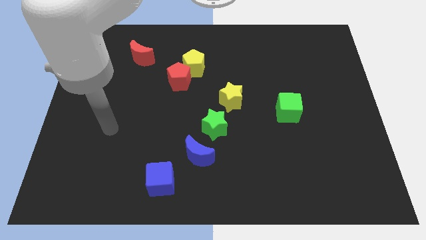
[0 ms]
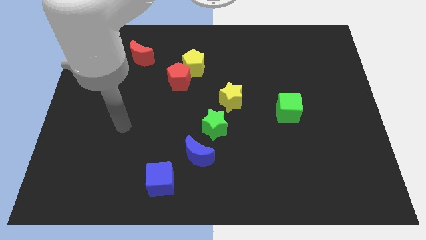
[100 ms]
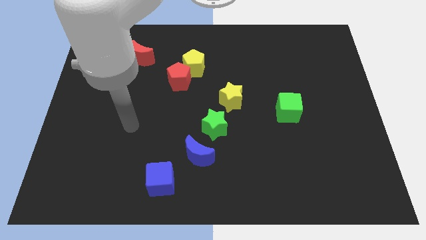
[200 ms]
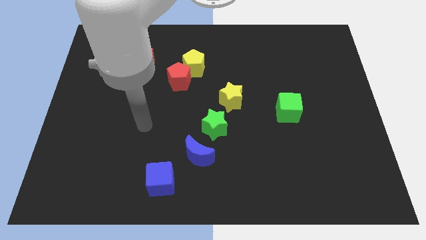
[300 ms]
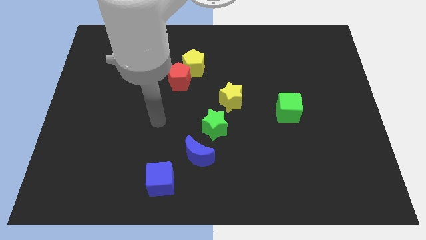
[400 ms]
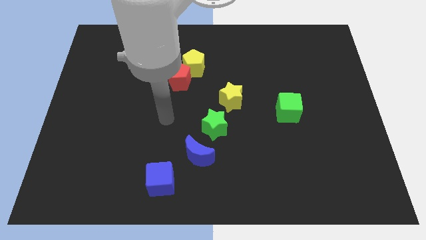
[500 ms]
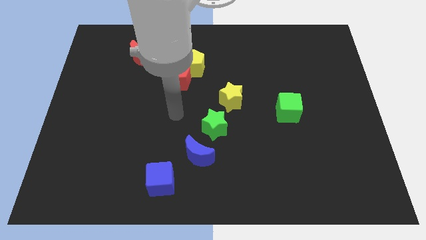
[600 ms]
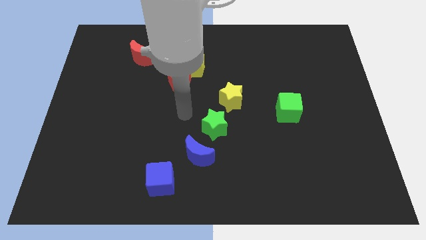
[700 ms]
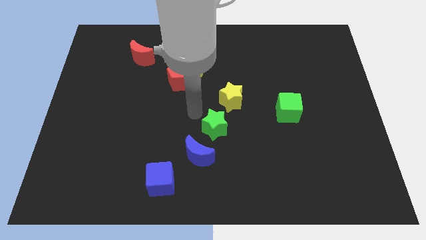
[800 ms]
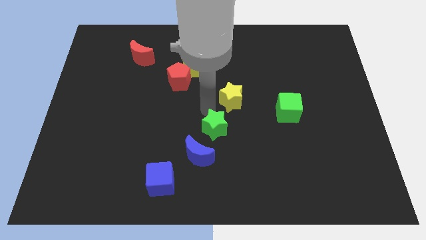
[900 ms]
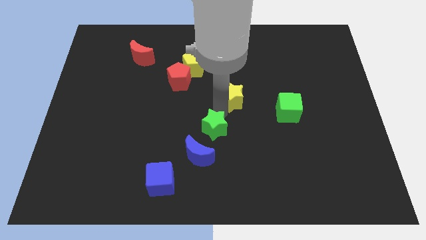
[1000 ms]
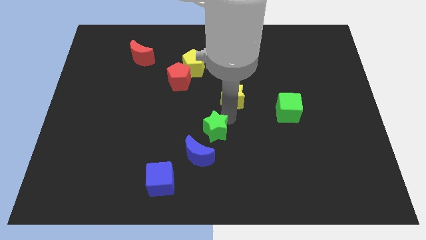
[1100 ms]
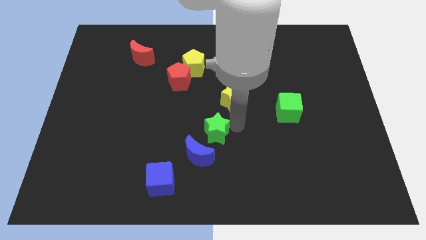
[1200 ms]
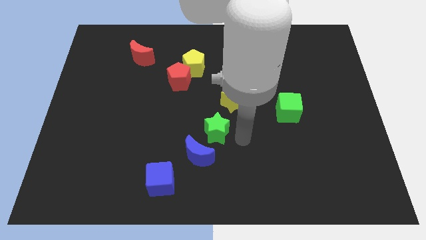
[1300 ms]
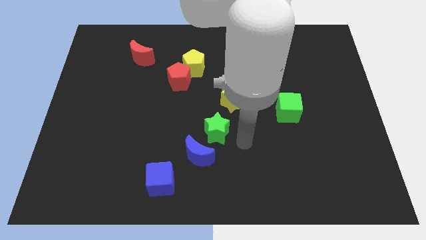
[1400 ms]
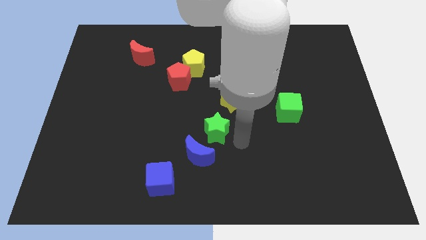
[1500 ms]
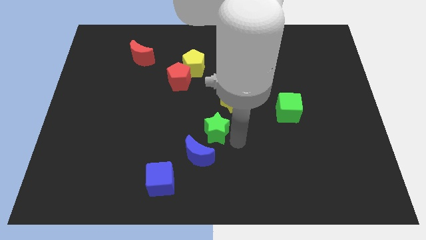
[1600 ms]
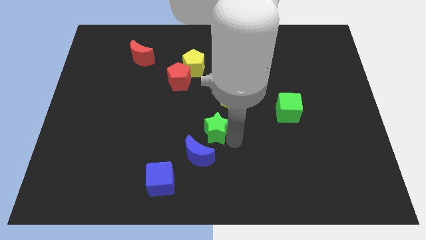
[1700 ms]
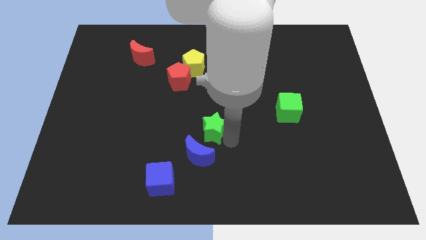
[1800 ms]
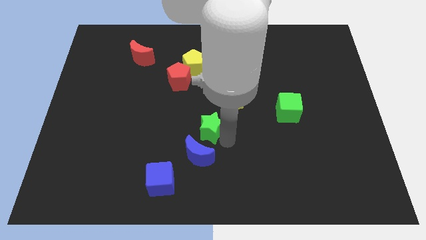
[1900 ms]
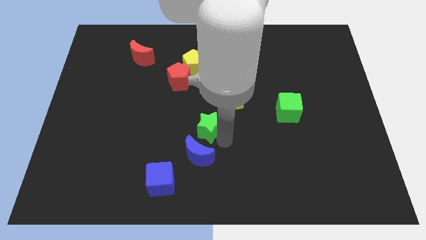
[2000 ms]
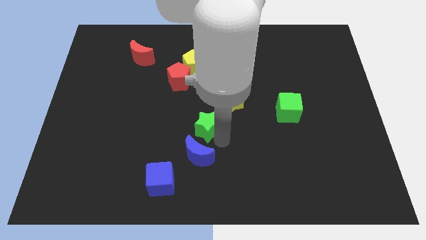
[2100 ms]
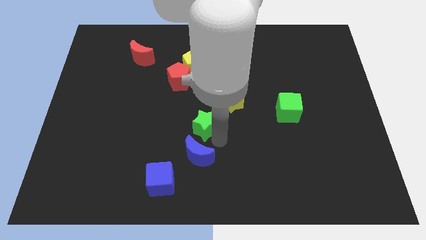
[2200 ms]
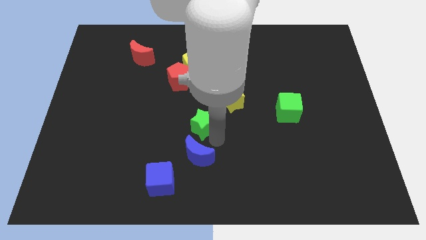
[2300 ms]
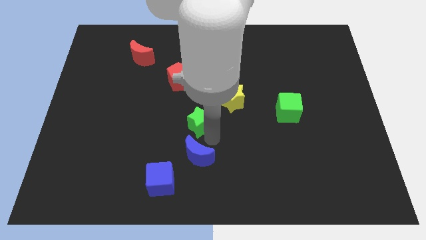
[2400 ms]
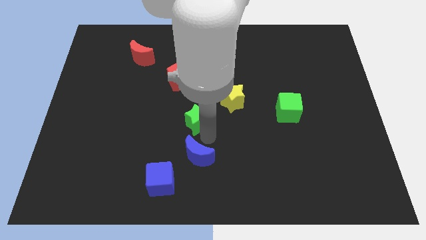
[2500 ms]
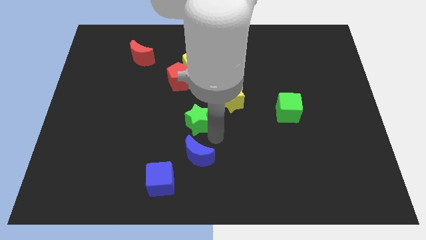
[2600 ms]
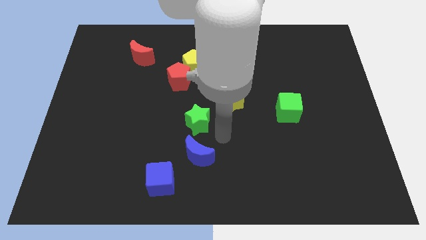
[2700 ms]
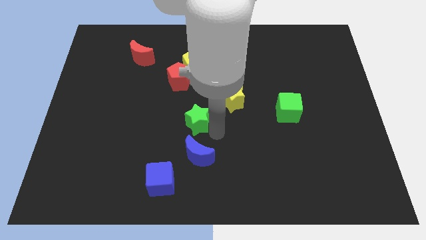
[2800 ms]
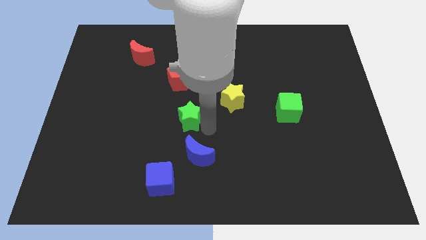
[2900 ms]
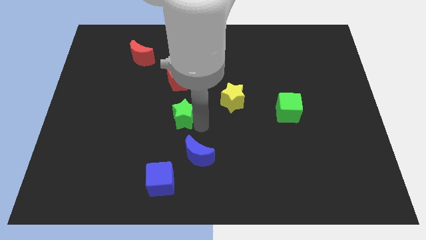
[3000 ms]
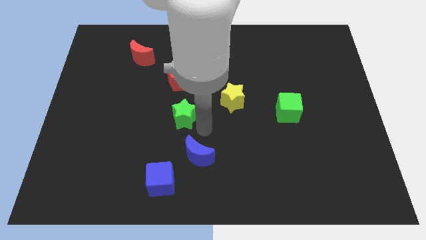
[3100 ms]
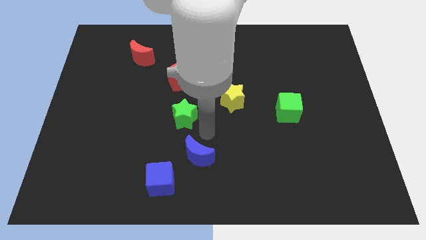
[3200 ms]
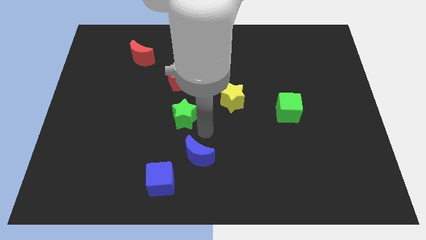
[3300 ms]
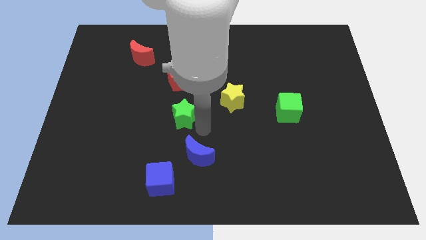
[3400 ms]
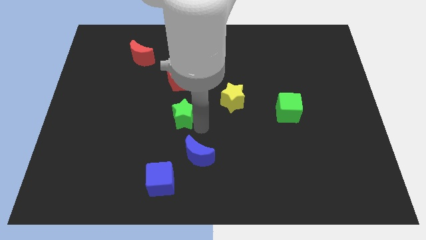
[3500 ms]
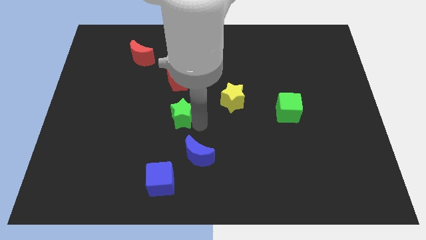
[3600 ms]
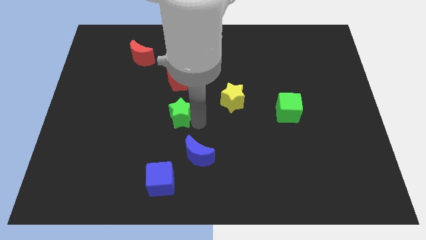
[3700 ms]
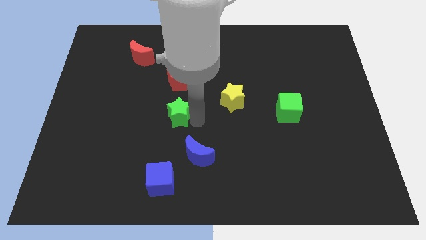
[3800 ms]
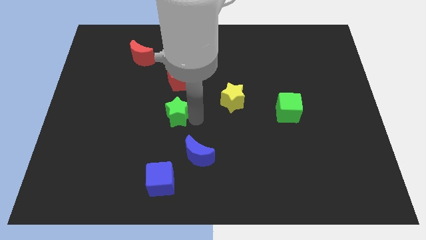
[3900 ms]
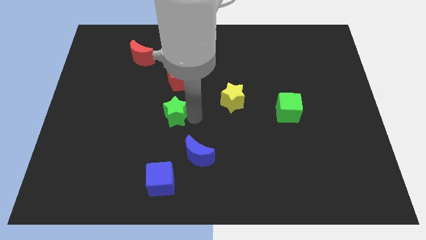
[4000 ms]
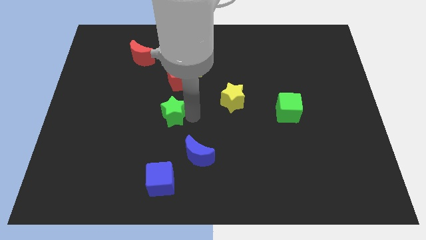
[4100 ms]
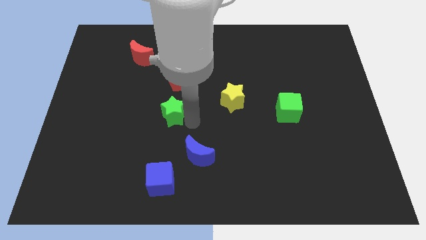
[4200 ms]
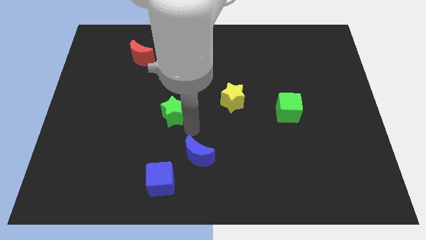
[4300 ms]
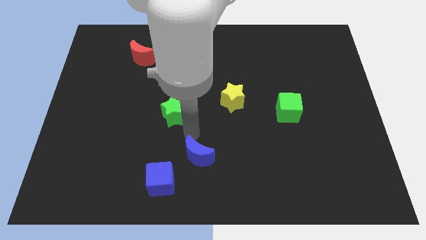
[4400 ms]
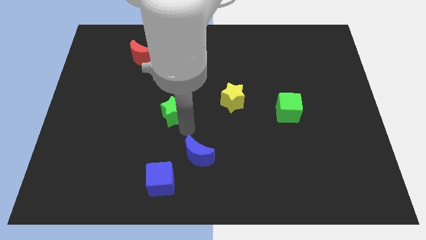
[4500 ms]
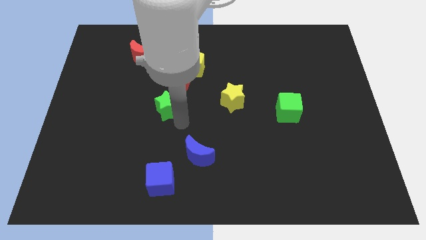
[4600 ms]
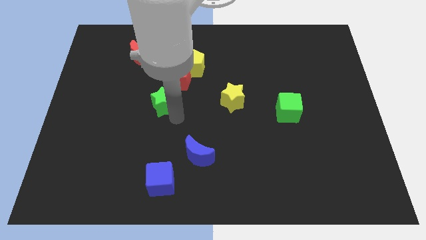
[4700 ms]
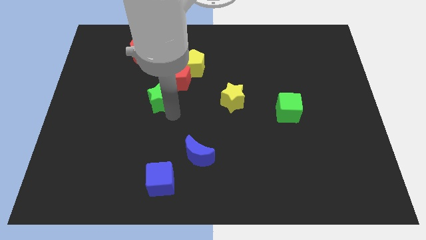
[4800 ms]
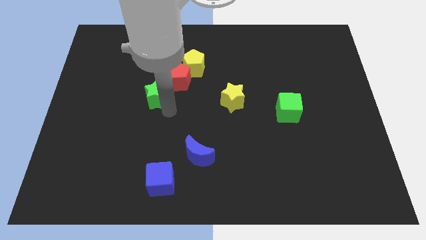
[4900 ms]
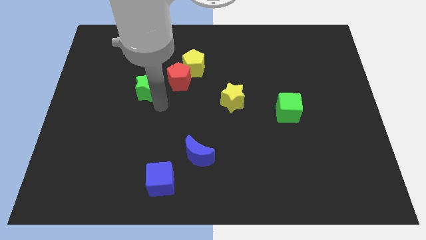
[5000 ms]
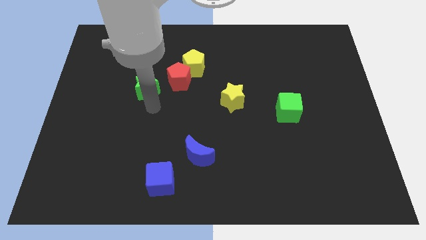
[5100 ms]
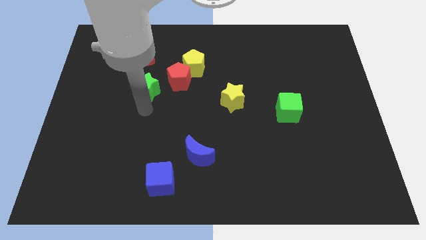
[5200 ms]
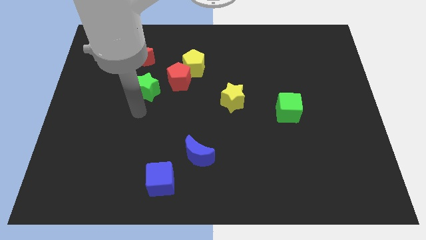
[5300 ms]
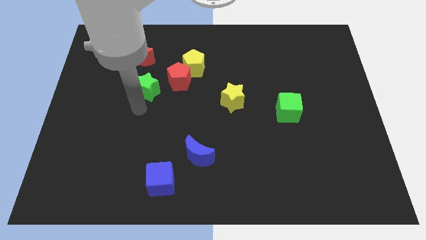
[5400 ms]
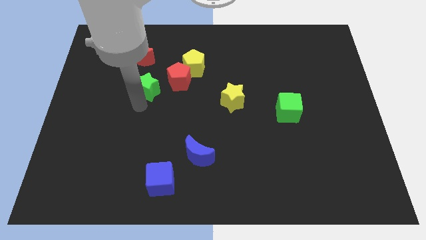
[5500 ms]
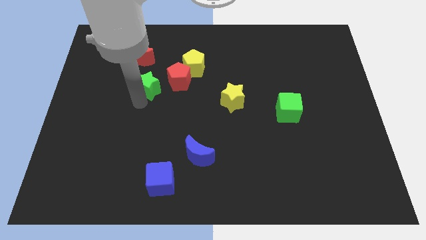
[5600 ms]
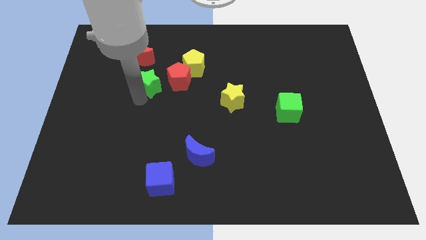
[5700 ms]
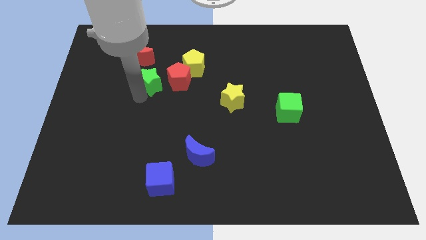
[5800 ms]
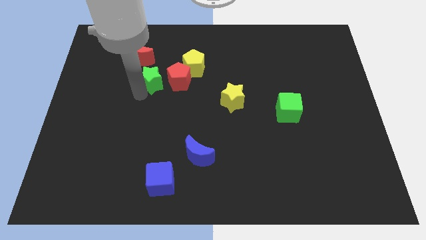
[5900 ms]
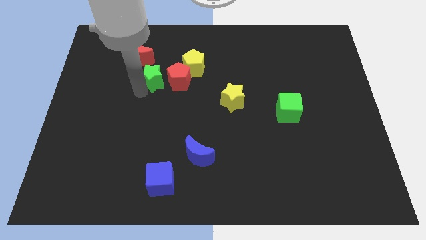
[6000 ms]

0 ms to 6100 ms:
put the green star diagonally up and to the left of the red pentagon
